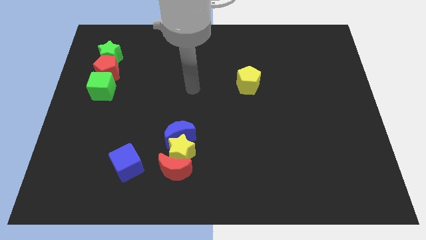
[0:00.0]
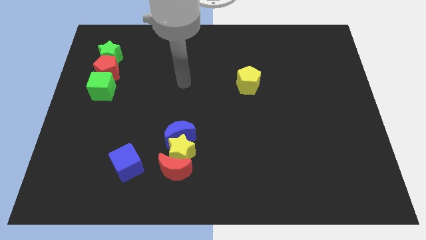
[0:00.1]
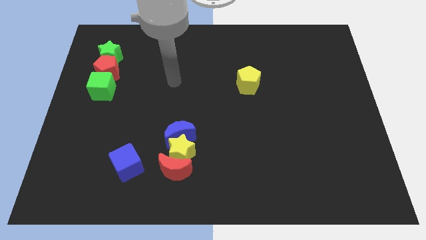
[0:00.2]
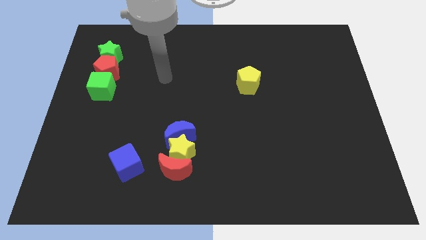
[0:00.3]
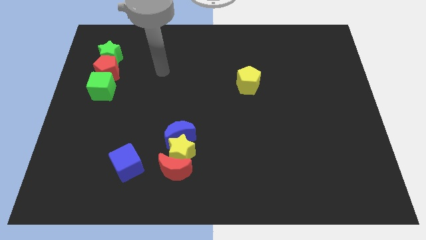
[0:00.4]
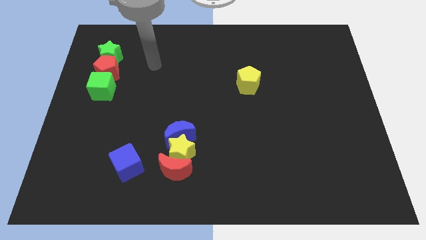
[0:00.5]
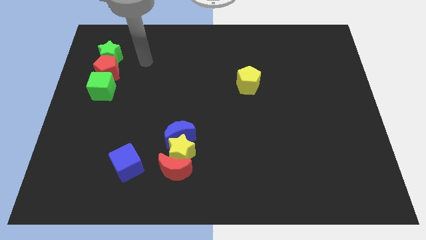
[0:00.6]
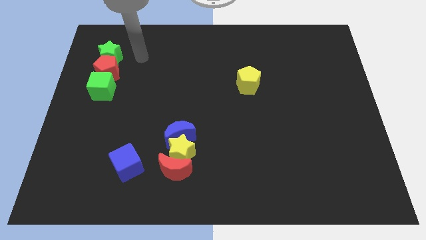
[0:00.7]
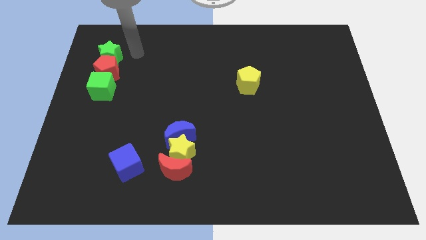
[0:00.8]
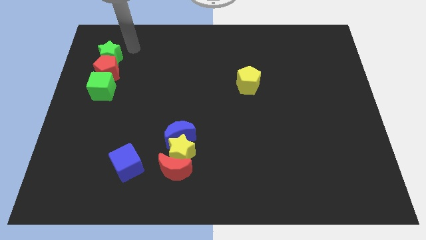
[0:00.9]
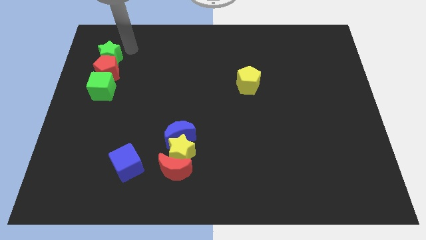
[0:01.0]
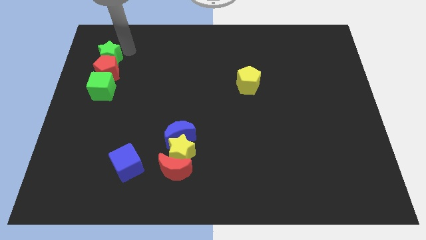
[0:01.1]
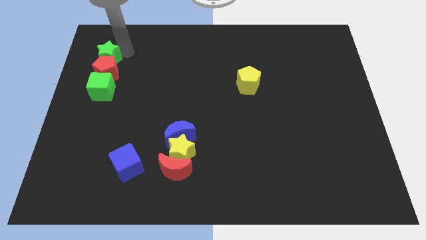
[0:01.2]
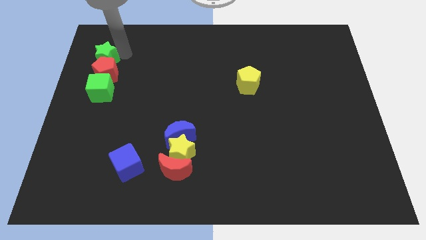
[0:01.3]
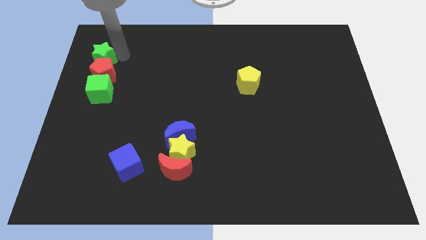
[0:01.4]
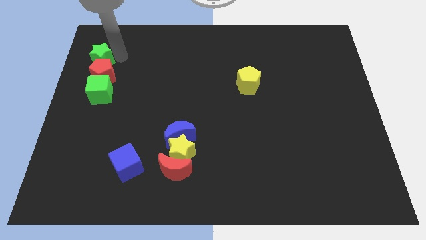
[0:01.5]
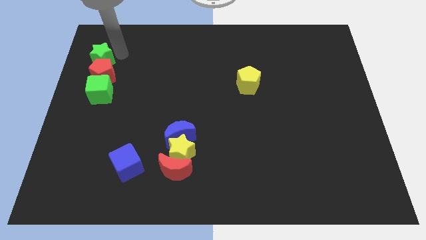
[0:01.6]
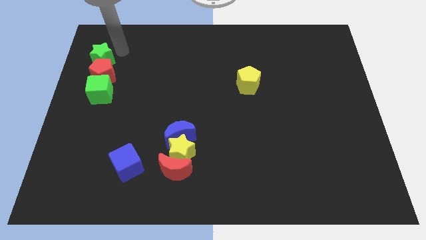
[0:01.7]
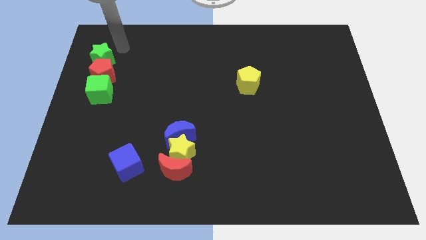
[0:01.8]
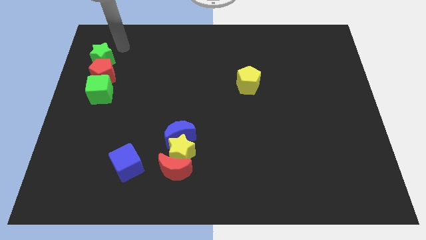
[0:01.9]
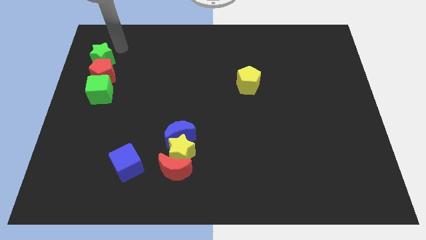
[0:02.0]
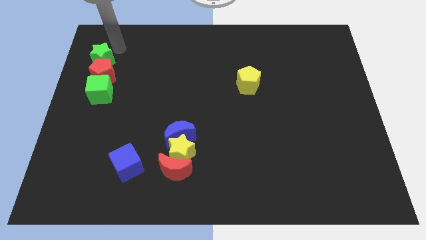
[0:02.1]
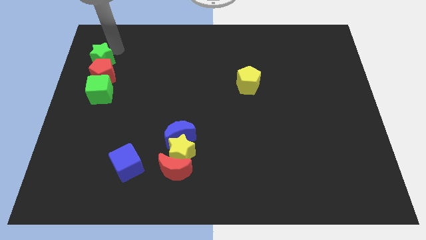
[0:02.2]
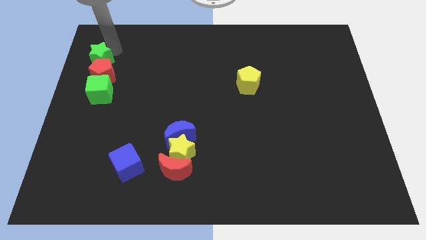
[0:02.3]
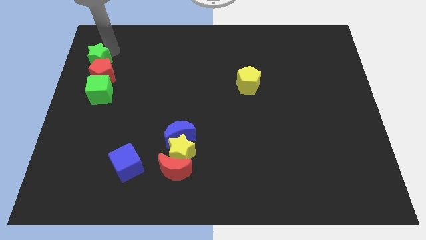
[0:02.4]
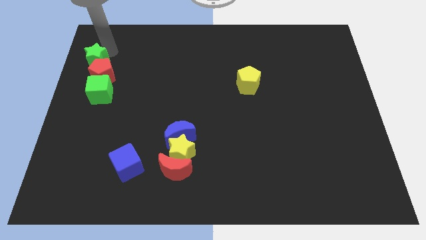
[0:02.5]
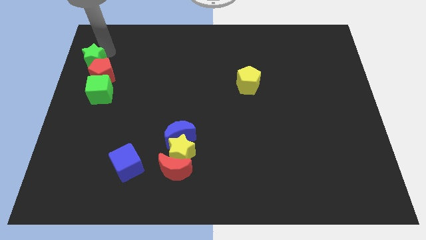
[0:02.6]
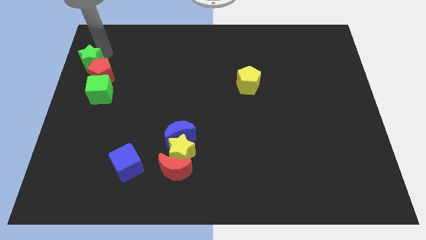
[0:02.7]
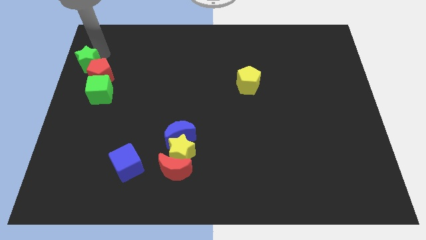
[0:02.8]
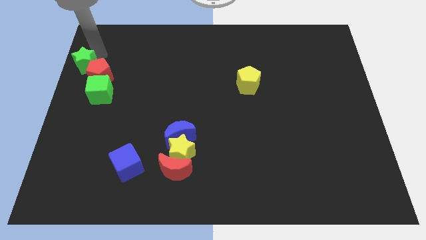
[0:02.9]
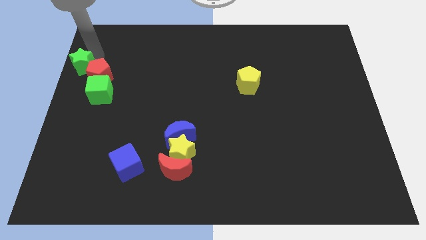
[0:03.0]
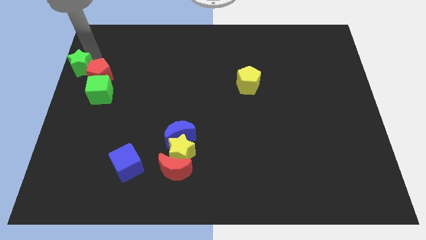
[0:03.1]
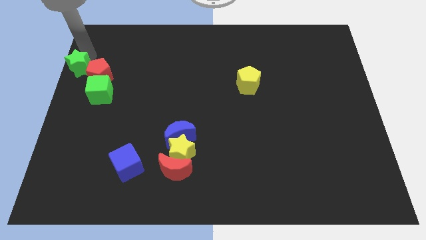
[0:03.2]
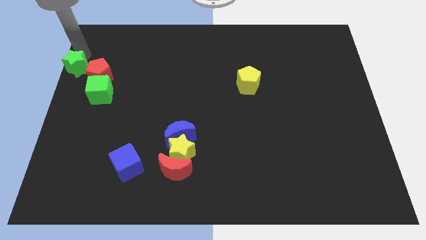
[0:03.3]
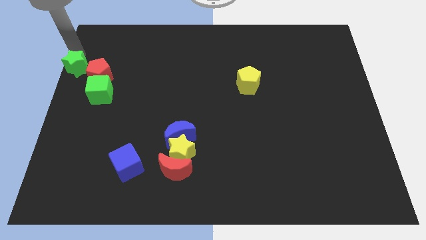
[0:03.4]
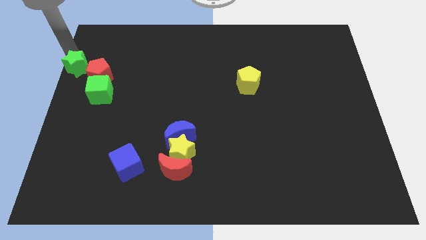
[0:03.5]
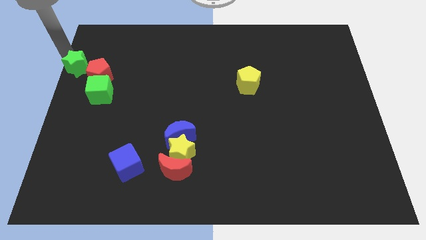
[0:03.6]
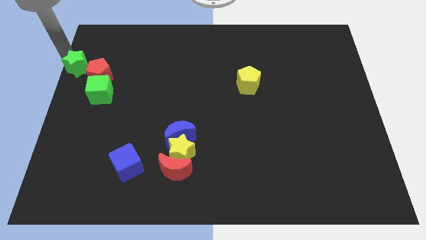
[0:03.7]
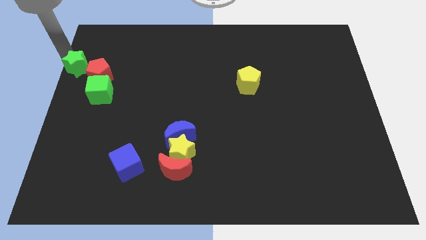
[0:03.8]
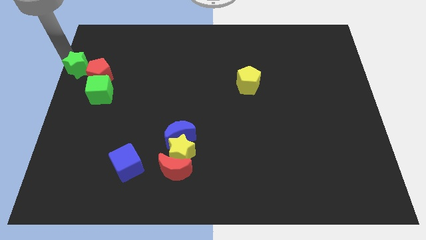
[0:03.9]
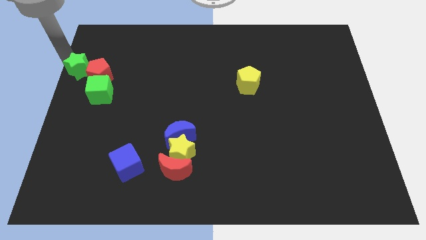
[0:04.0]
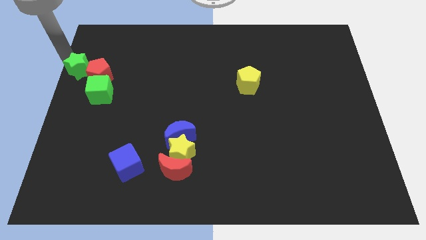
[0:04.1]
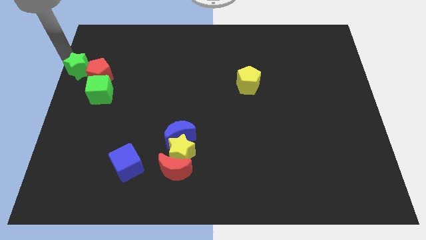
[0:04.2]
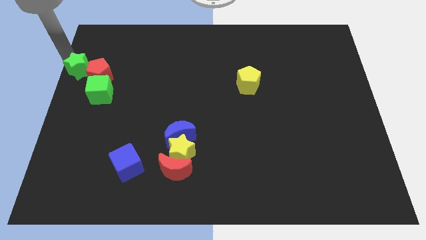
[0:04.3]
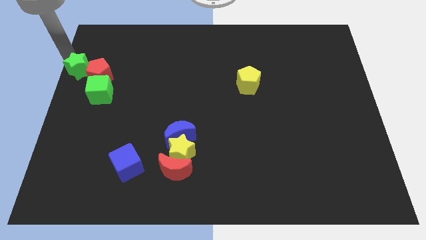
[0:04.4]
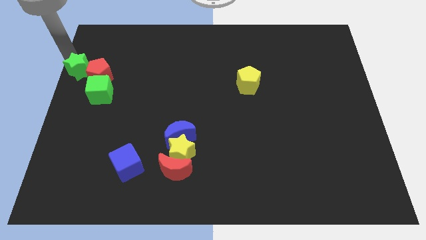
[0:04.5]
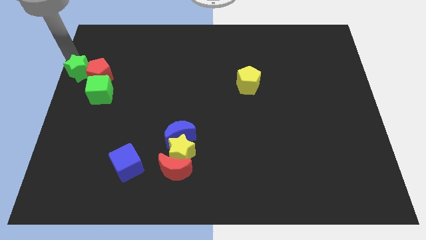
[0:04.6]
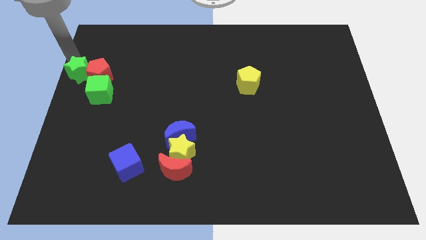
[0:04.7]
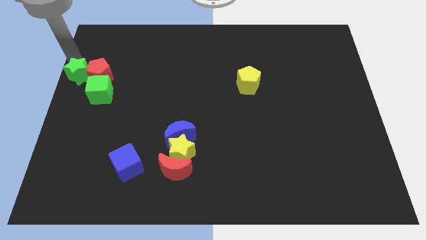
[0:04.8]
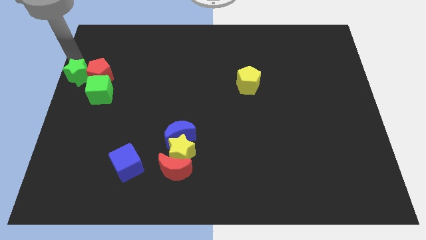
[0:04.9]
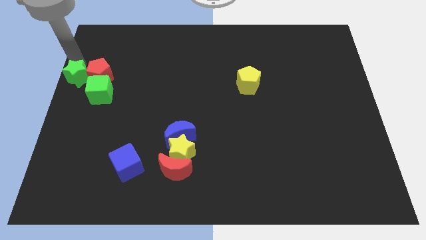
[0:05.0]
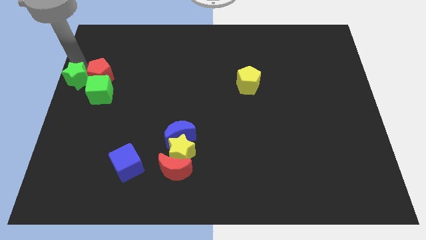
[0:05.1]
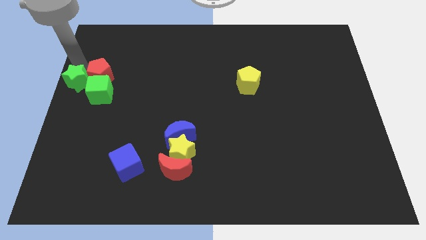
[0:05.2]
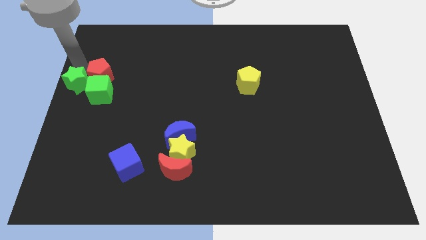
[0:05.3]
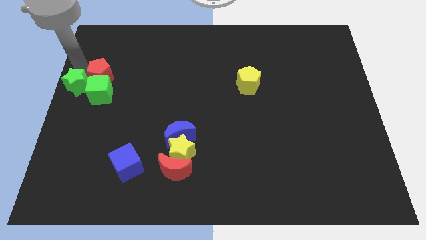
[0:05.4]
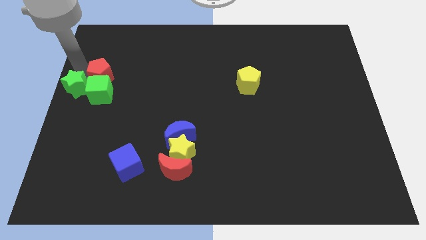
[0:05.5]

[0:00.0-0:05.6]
slide the green star close to the green cube
